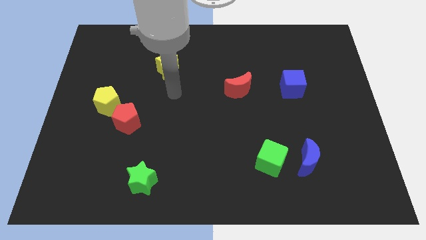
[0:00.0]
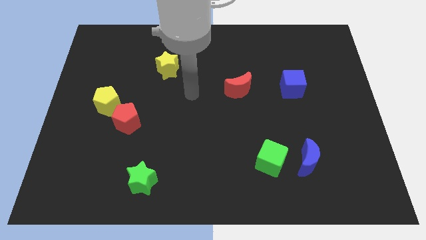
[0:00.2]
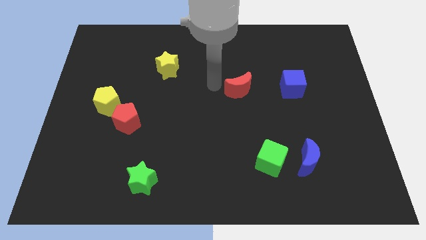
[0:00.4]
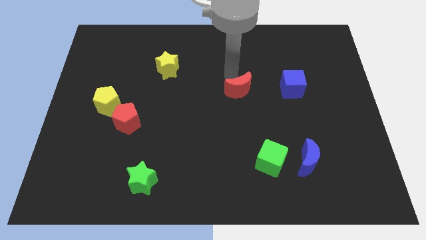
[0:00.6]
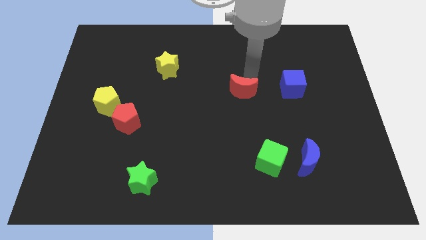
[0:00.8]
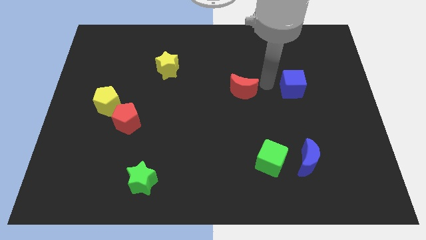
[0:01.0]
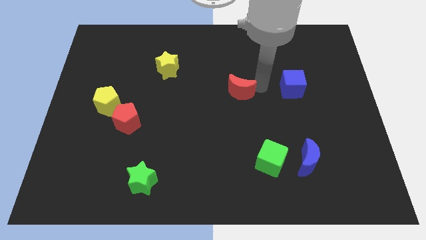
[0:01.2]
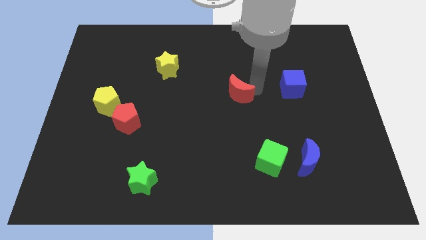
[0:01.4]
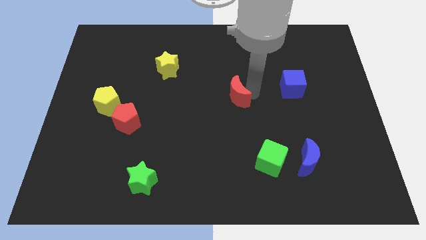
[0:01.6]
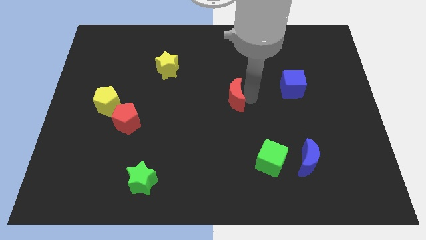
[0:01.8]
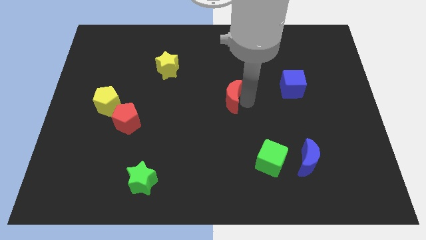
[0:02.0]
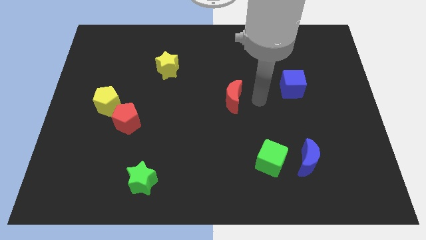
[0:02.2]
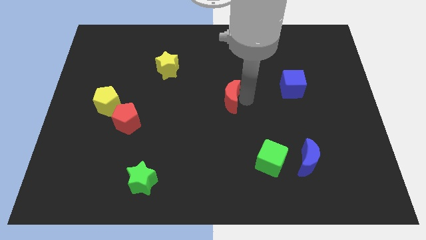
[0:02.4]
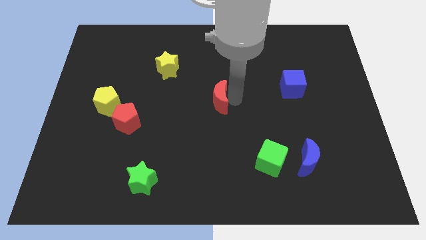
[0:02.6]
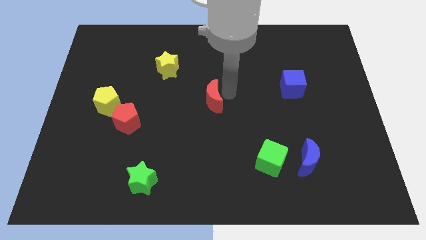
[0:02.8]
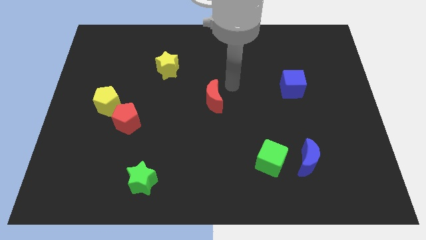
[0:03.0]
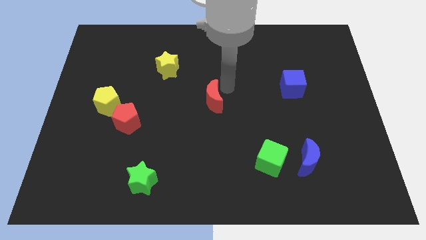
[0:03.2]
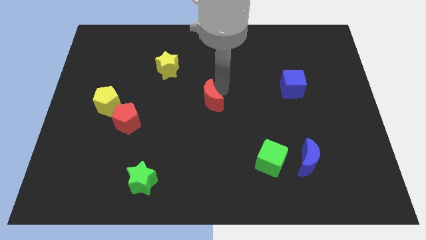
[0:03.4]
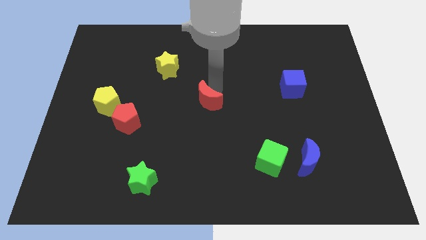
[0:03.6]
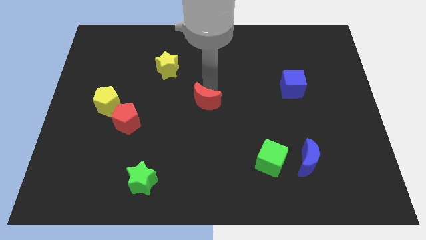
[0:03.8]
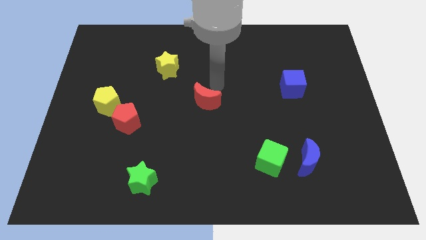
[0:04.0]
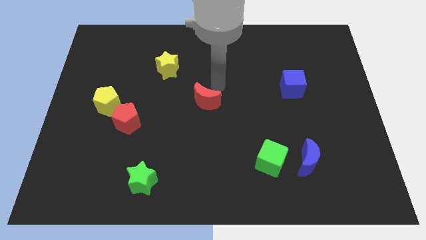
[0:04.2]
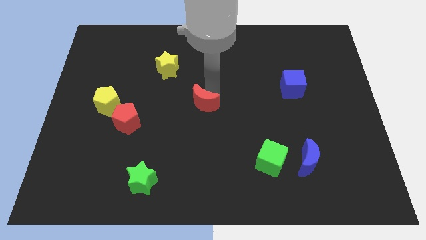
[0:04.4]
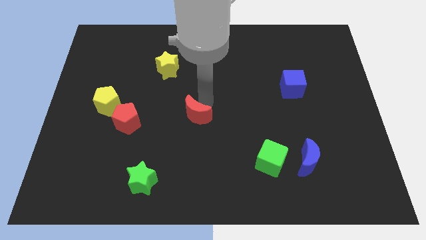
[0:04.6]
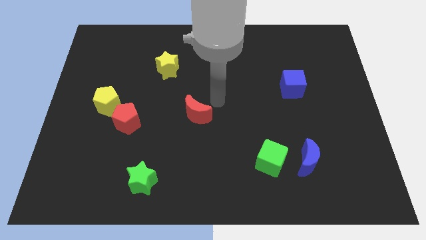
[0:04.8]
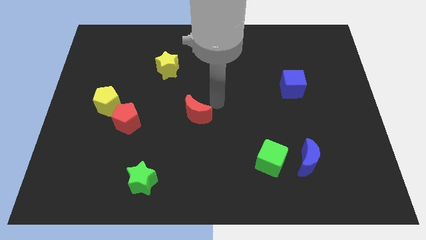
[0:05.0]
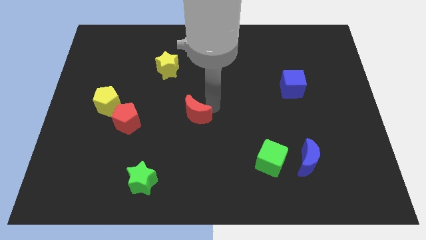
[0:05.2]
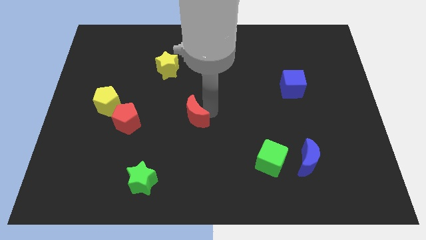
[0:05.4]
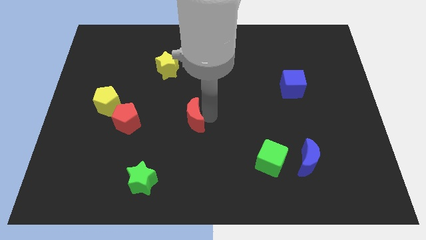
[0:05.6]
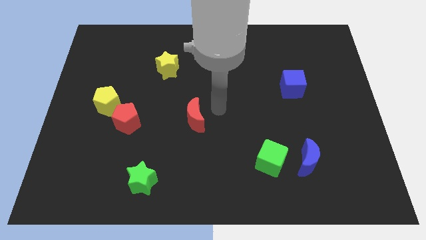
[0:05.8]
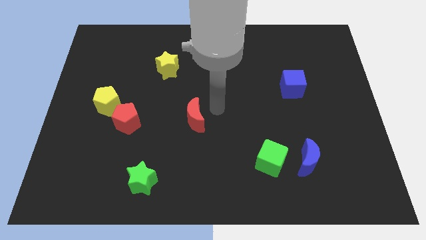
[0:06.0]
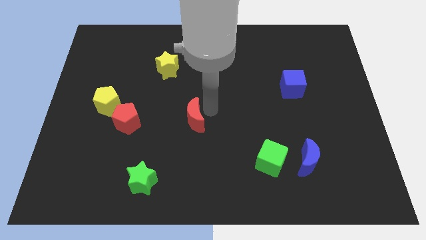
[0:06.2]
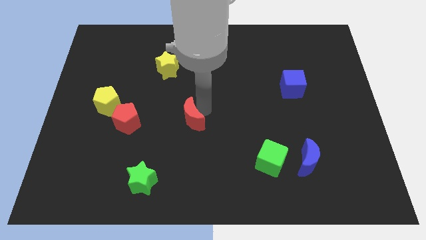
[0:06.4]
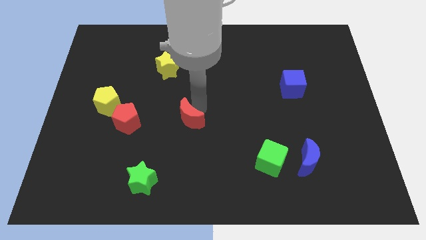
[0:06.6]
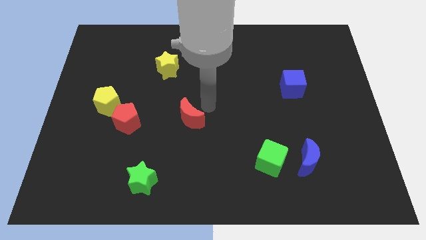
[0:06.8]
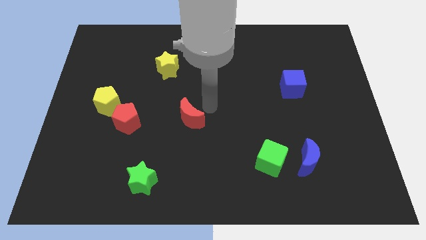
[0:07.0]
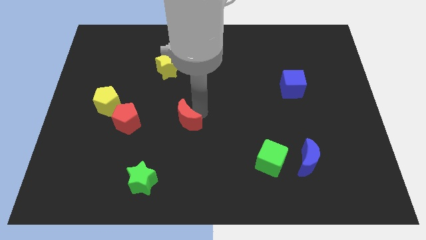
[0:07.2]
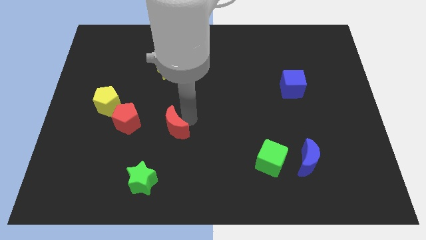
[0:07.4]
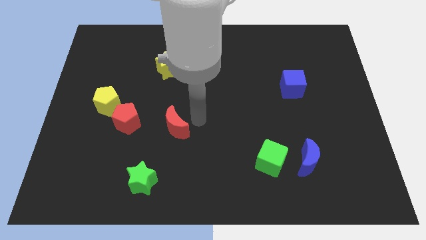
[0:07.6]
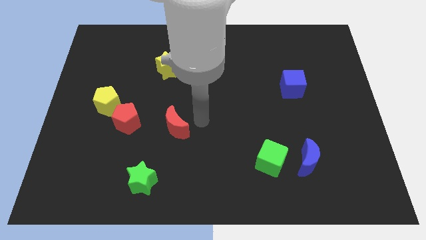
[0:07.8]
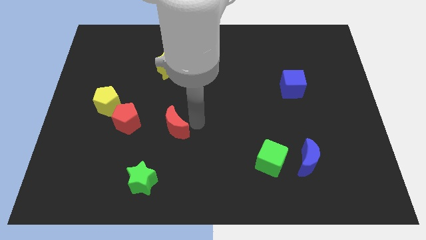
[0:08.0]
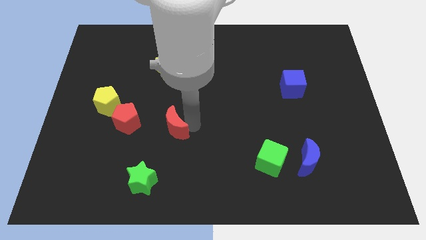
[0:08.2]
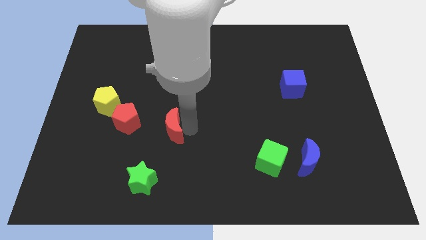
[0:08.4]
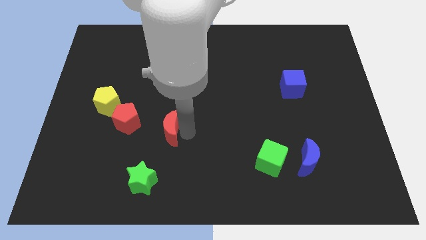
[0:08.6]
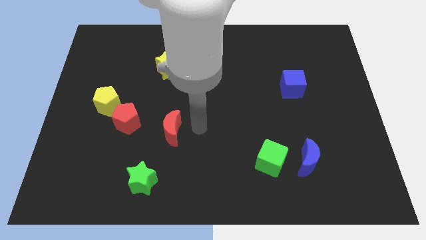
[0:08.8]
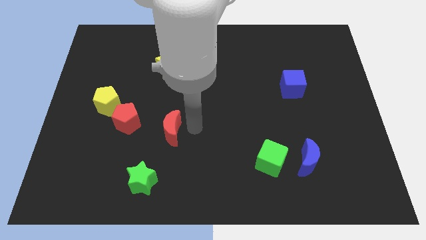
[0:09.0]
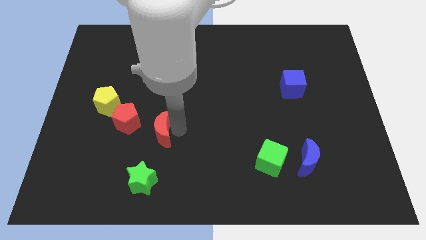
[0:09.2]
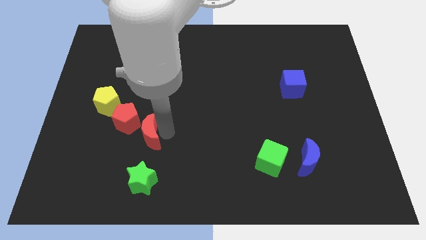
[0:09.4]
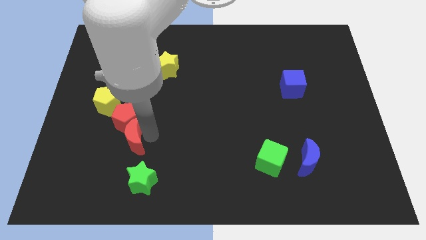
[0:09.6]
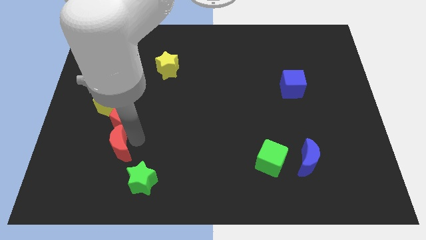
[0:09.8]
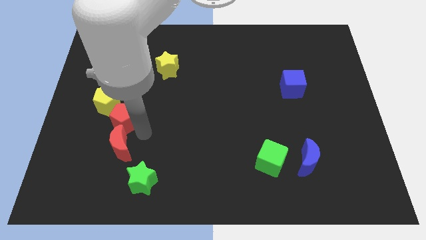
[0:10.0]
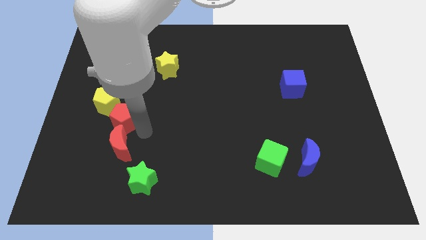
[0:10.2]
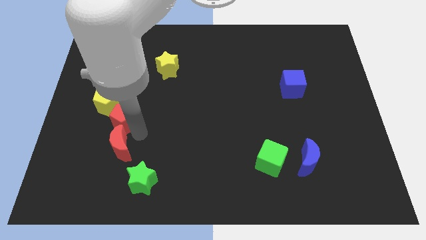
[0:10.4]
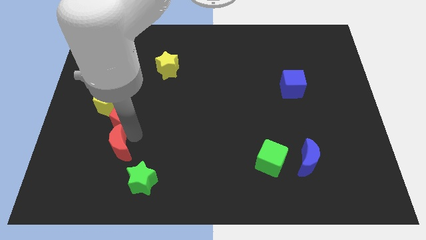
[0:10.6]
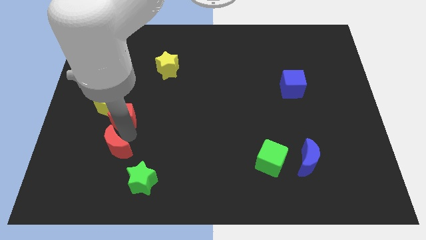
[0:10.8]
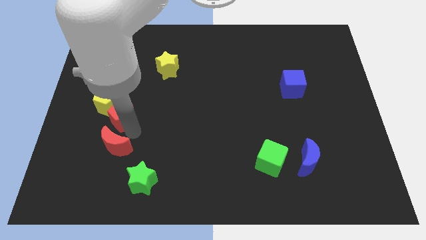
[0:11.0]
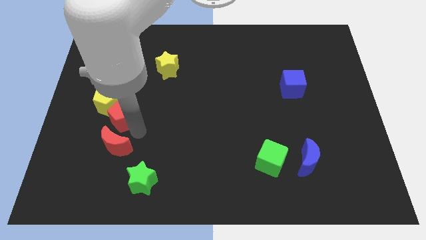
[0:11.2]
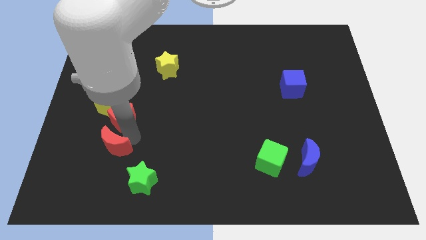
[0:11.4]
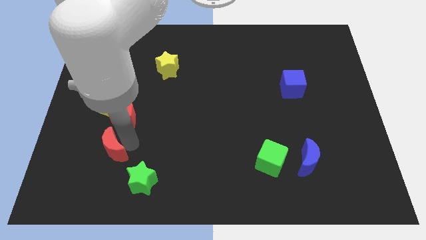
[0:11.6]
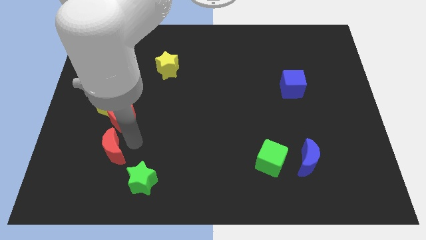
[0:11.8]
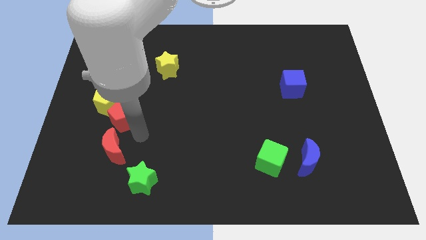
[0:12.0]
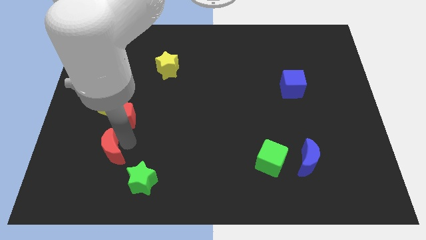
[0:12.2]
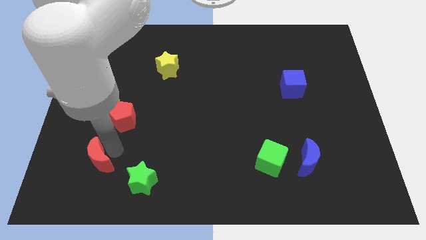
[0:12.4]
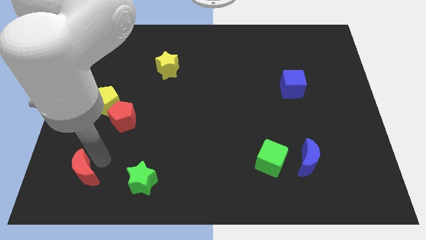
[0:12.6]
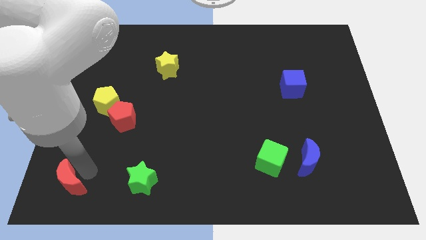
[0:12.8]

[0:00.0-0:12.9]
put the red moon to the bottom left of the board
